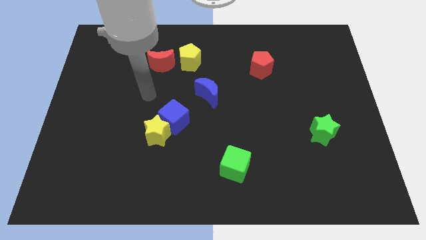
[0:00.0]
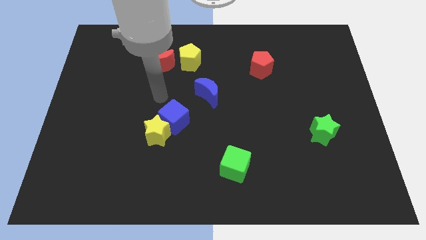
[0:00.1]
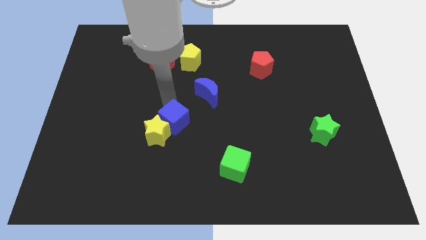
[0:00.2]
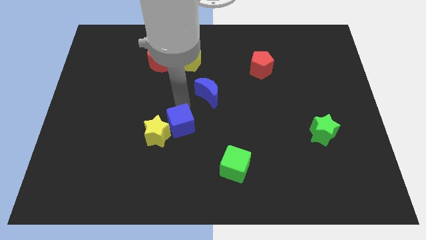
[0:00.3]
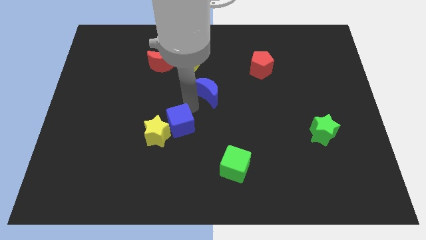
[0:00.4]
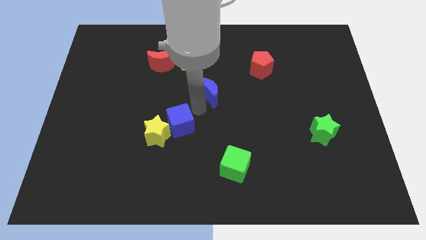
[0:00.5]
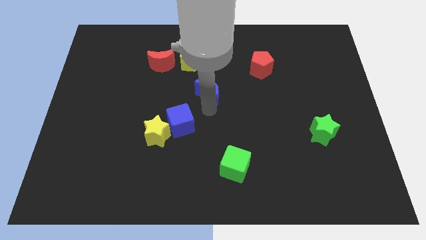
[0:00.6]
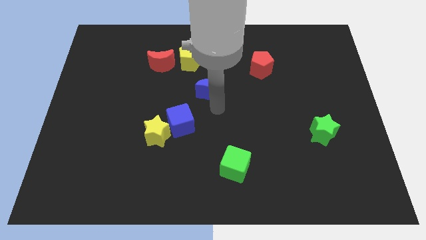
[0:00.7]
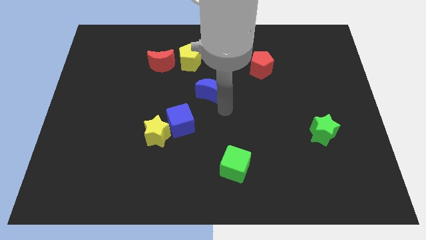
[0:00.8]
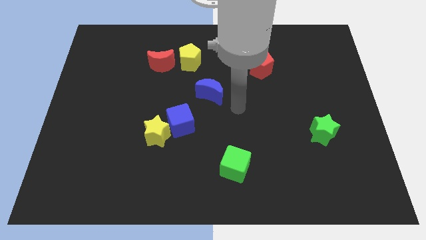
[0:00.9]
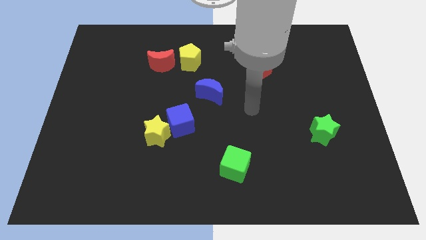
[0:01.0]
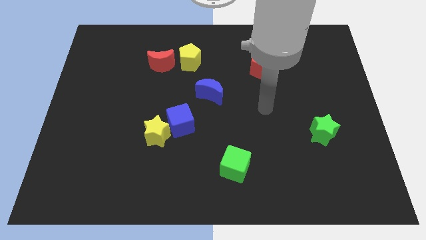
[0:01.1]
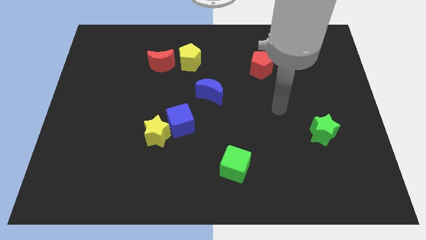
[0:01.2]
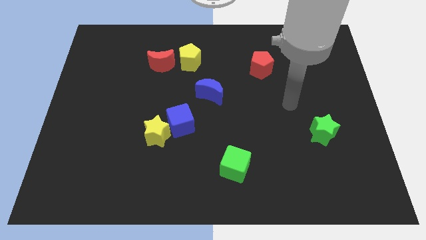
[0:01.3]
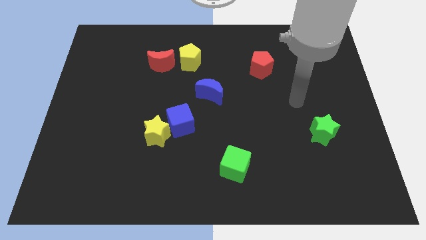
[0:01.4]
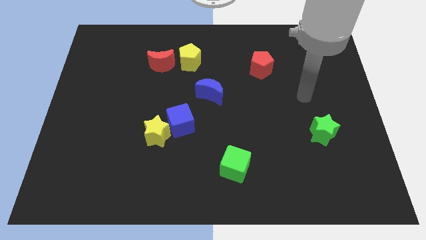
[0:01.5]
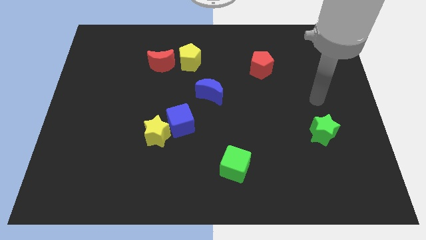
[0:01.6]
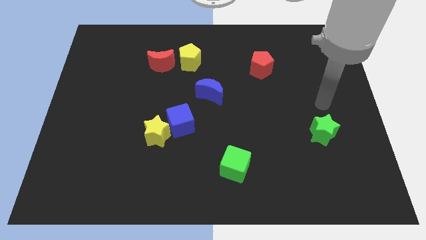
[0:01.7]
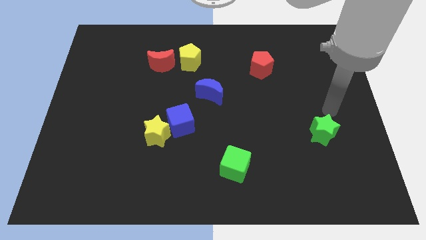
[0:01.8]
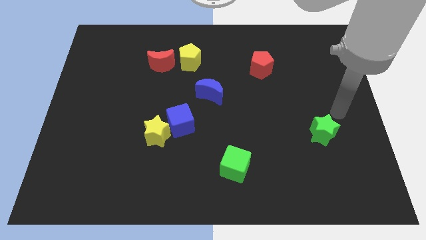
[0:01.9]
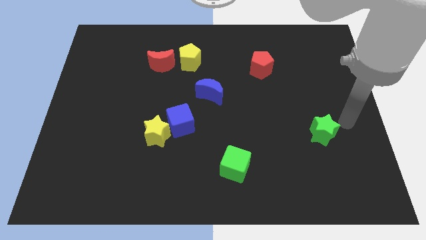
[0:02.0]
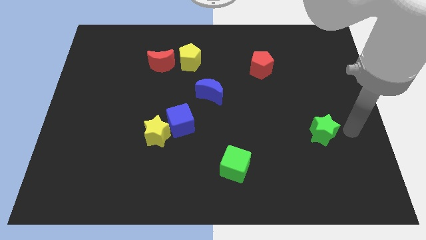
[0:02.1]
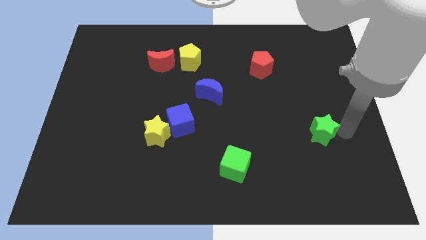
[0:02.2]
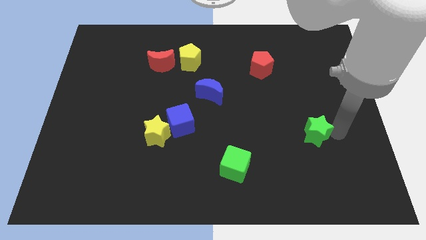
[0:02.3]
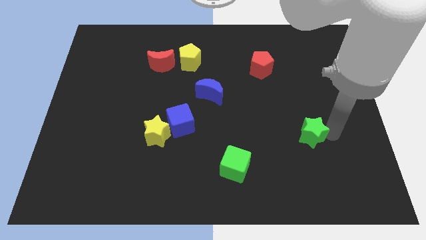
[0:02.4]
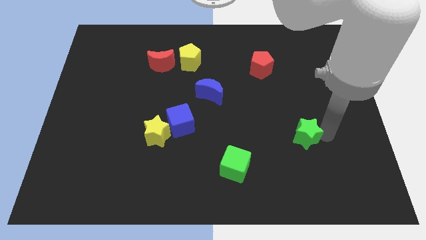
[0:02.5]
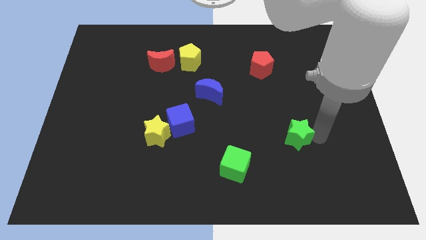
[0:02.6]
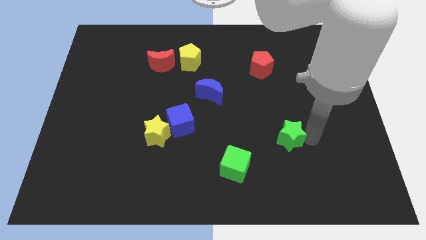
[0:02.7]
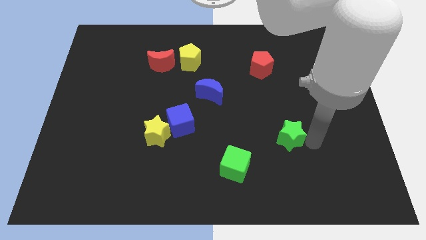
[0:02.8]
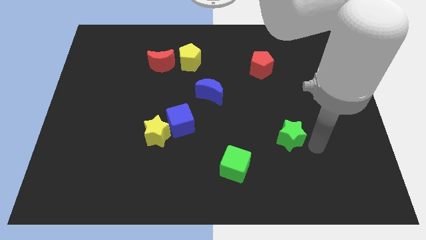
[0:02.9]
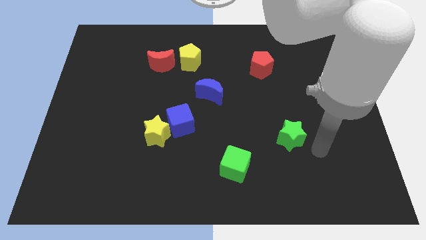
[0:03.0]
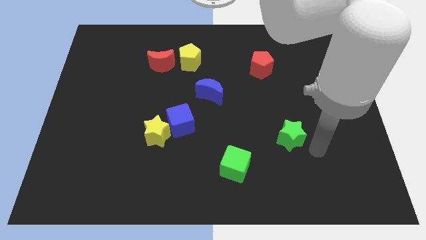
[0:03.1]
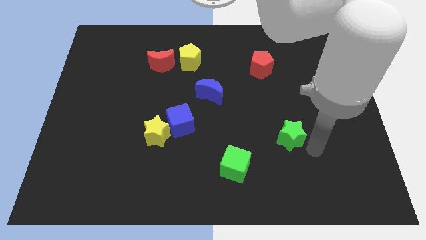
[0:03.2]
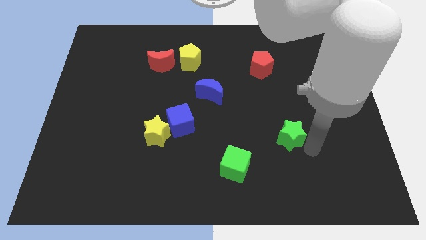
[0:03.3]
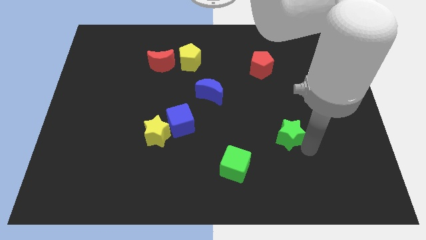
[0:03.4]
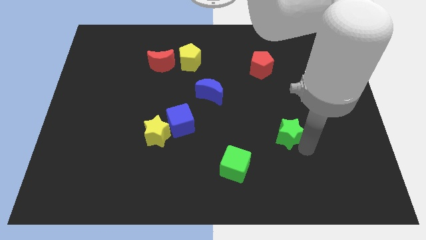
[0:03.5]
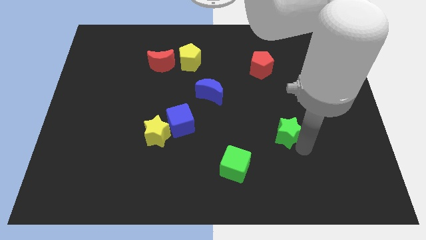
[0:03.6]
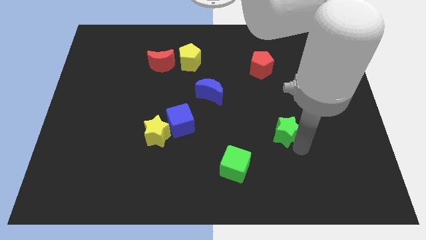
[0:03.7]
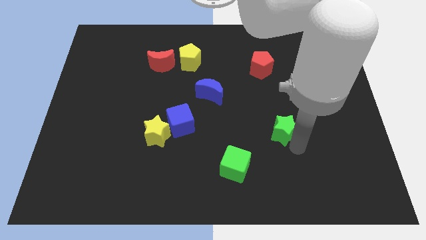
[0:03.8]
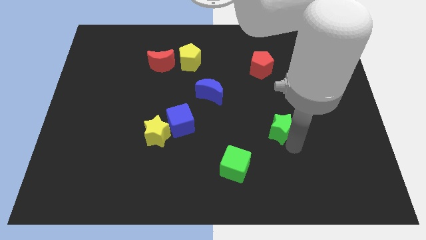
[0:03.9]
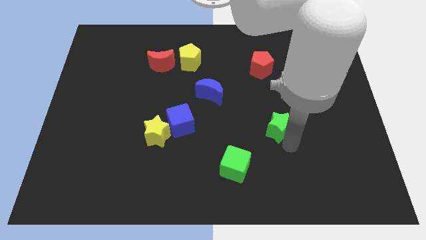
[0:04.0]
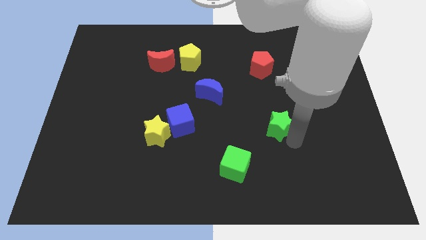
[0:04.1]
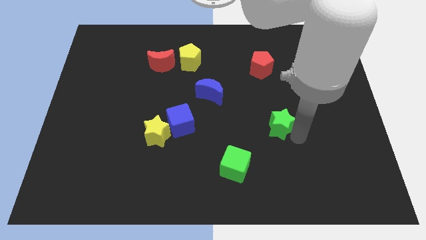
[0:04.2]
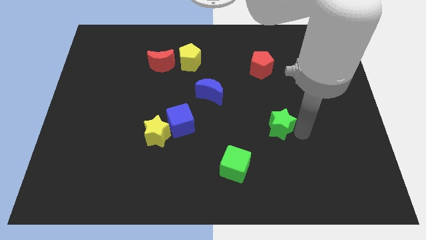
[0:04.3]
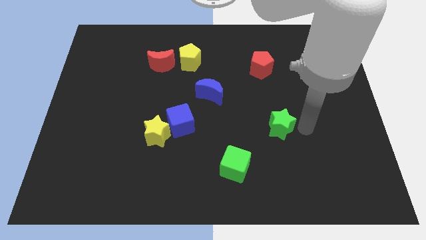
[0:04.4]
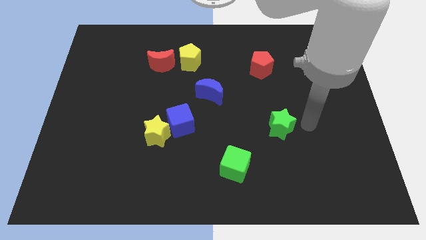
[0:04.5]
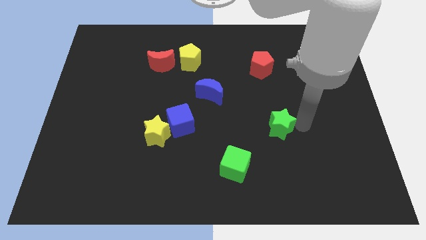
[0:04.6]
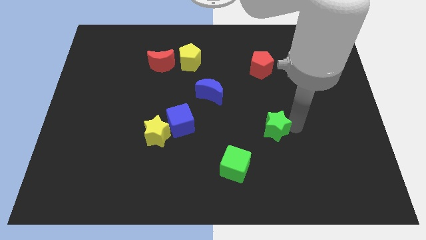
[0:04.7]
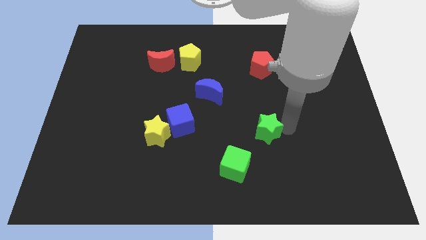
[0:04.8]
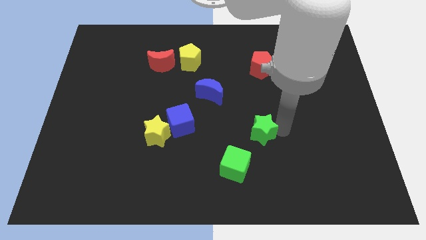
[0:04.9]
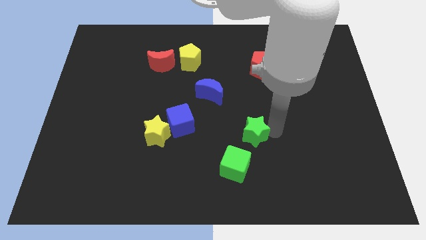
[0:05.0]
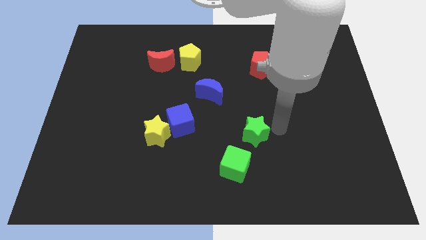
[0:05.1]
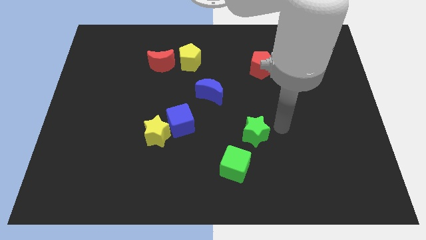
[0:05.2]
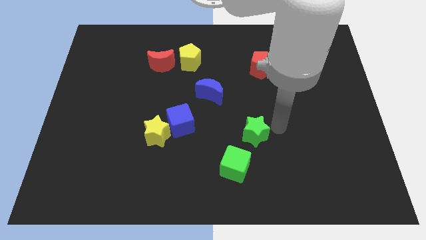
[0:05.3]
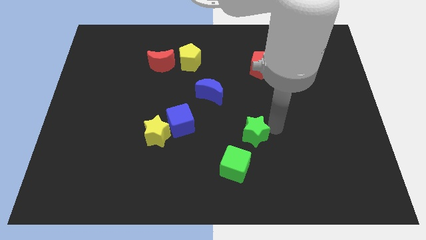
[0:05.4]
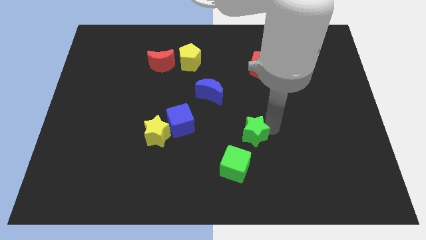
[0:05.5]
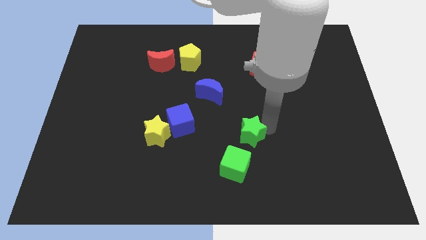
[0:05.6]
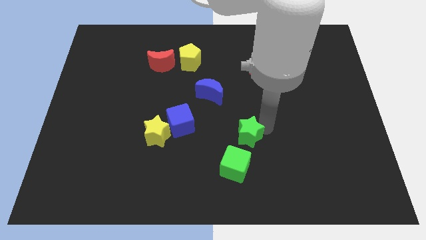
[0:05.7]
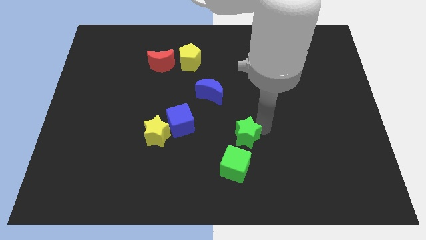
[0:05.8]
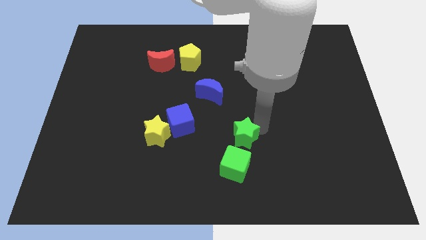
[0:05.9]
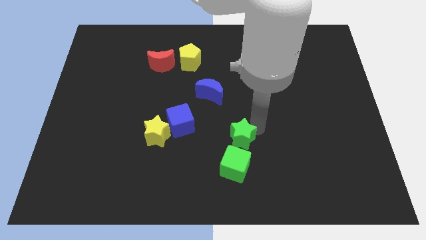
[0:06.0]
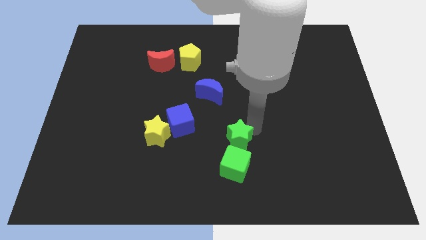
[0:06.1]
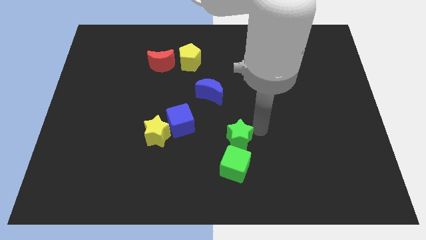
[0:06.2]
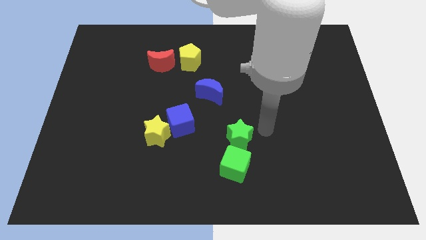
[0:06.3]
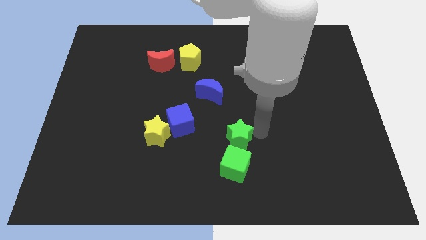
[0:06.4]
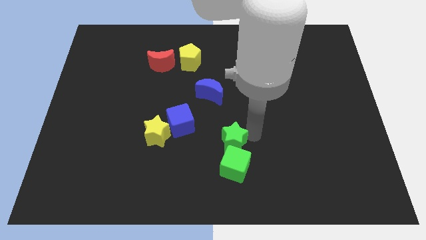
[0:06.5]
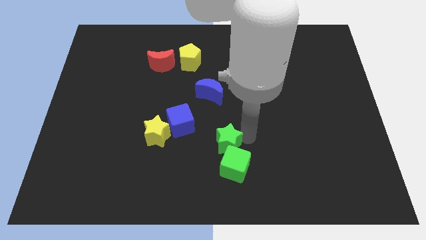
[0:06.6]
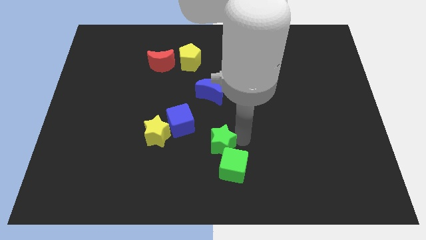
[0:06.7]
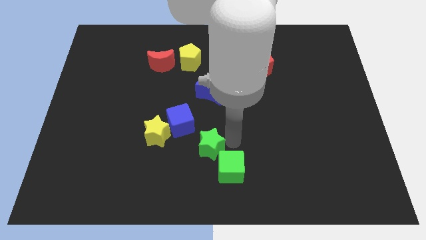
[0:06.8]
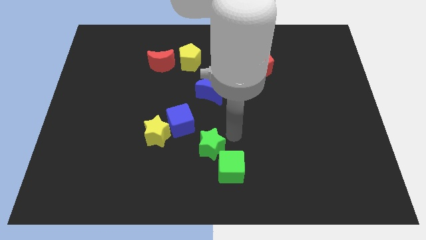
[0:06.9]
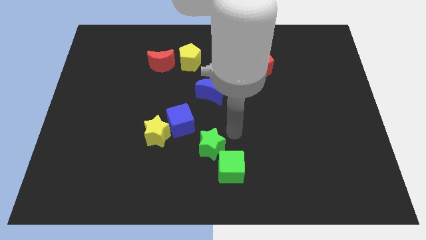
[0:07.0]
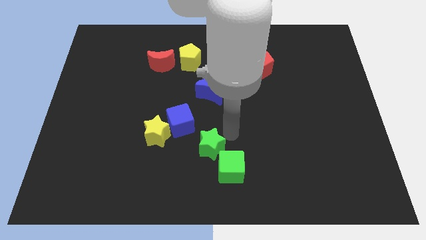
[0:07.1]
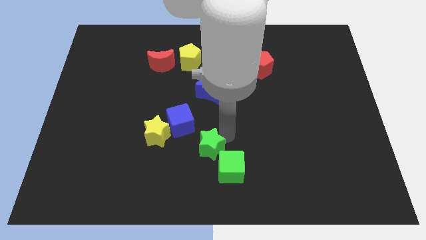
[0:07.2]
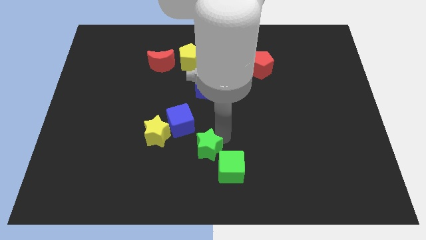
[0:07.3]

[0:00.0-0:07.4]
push the green star to the left of the green cube
